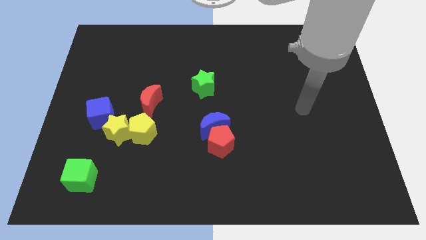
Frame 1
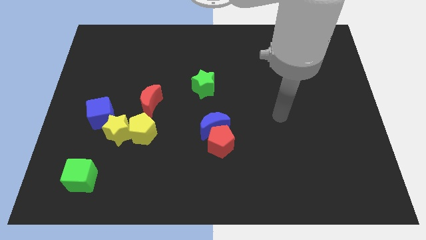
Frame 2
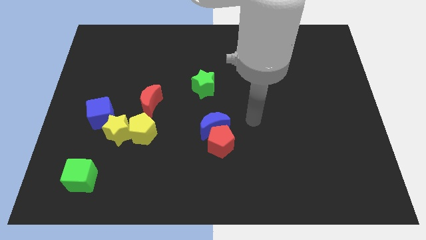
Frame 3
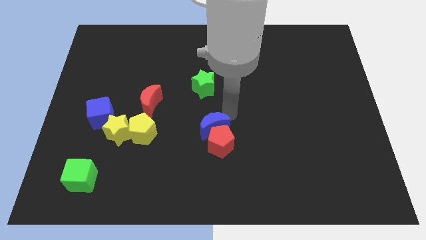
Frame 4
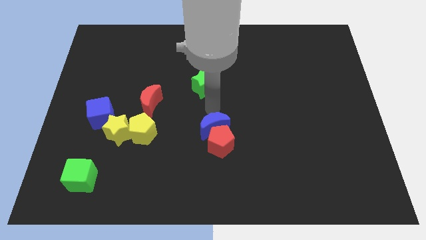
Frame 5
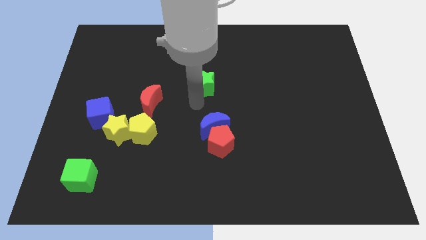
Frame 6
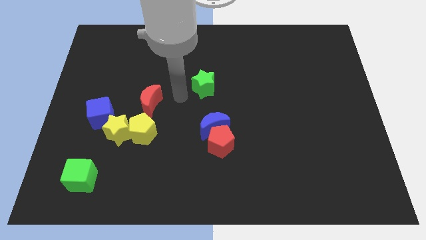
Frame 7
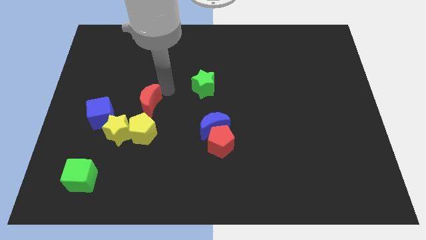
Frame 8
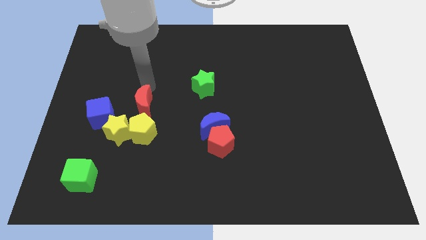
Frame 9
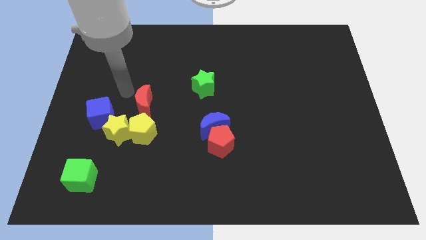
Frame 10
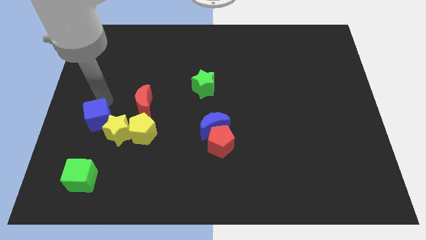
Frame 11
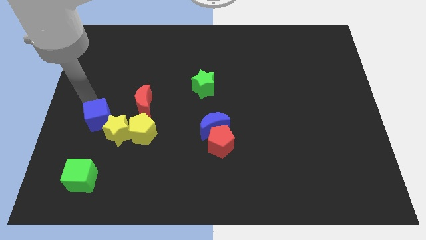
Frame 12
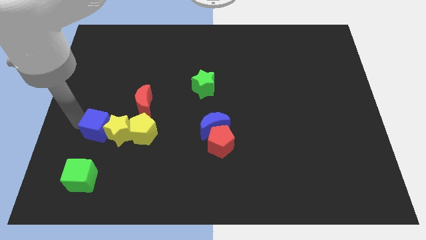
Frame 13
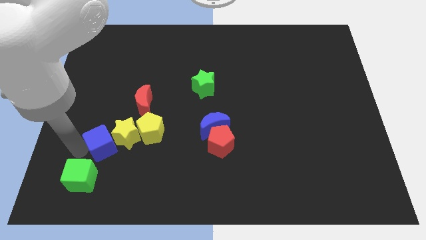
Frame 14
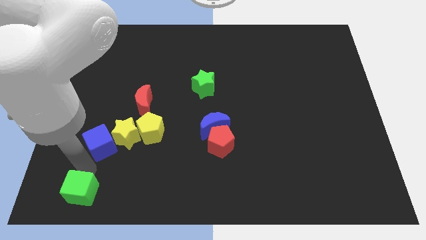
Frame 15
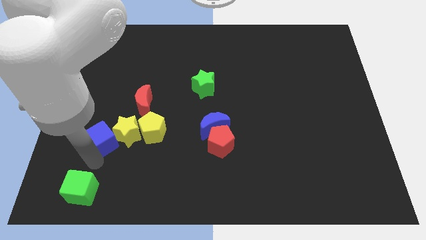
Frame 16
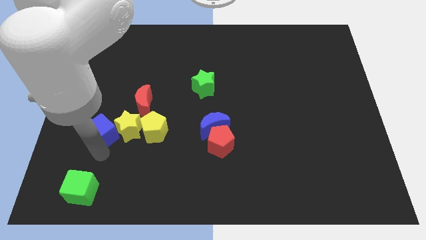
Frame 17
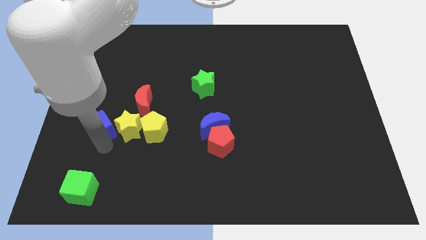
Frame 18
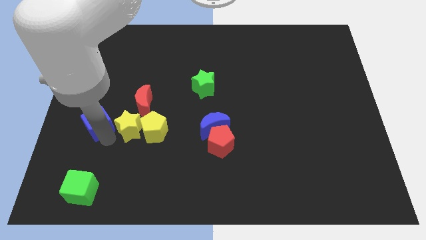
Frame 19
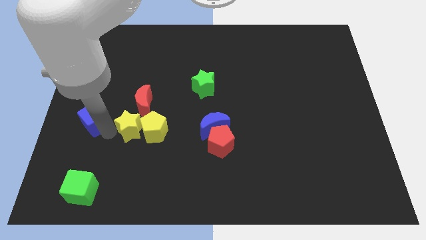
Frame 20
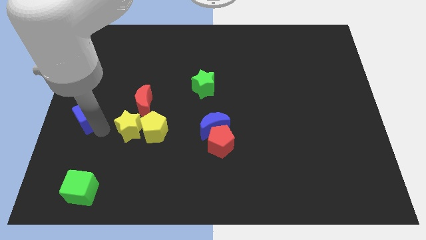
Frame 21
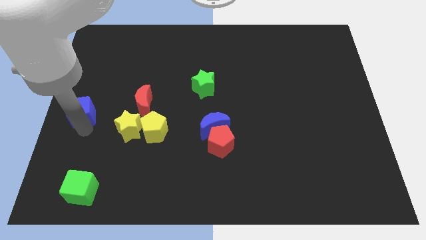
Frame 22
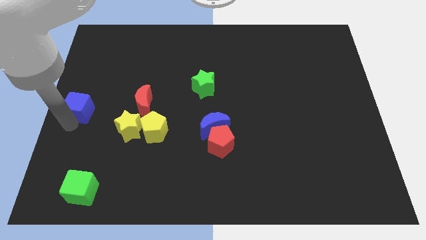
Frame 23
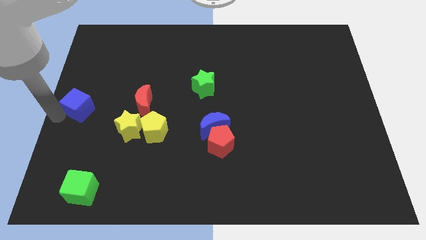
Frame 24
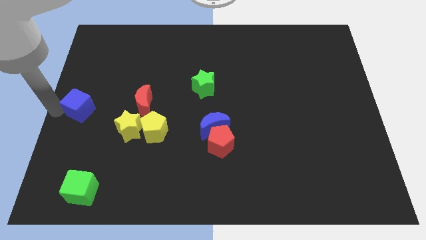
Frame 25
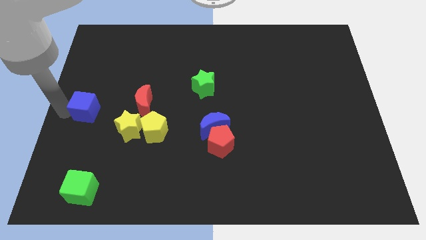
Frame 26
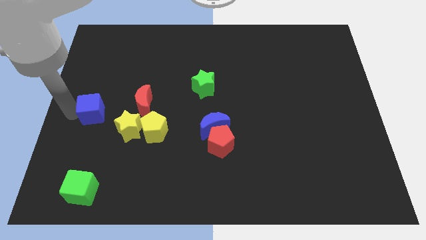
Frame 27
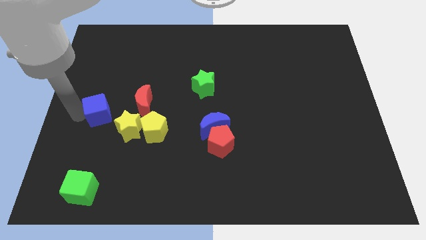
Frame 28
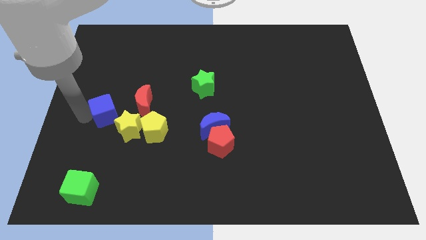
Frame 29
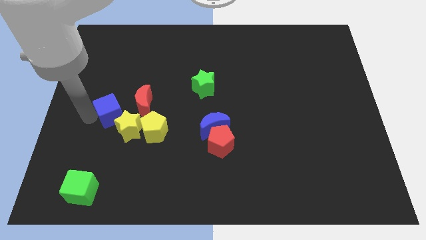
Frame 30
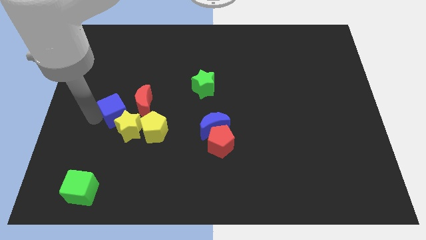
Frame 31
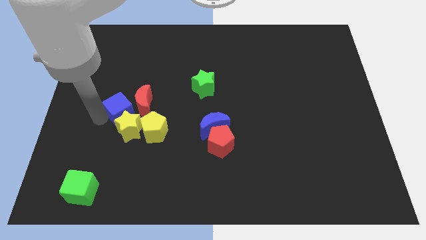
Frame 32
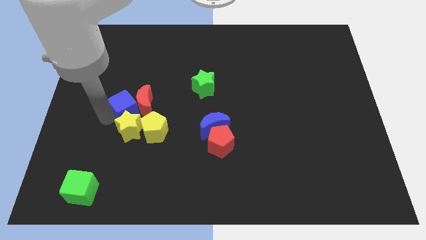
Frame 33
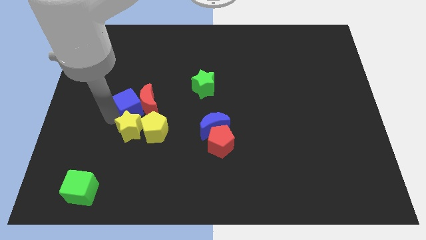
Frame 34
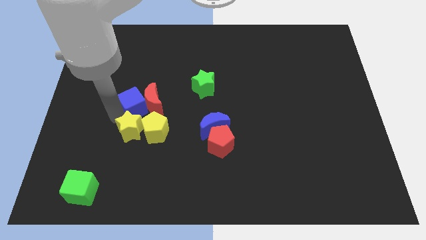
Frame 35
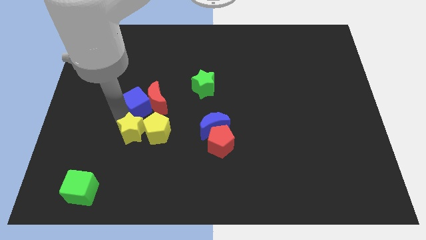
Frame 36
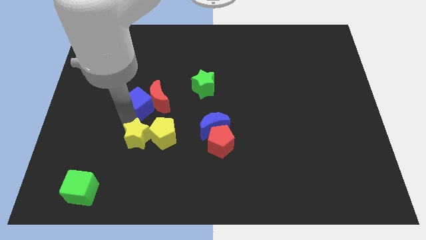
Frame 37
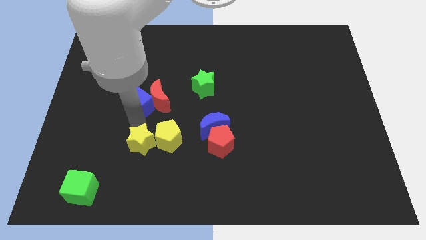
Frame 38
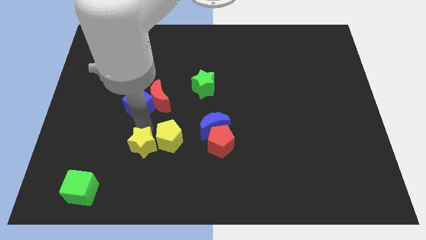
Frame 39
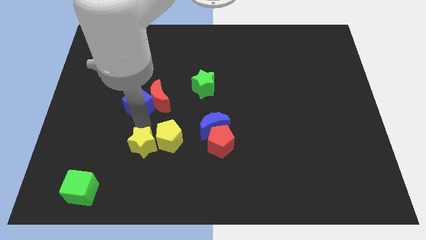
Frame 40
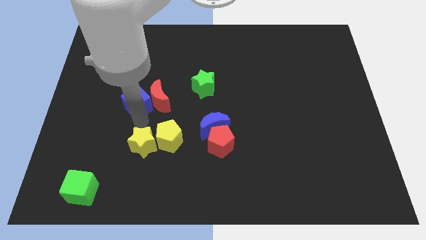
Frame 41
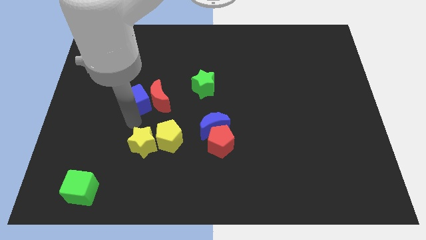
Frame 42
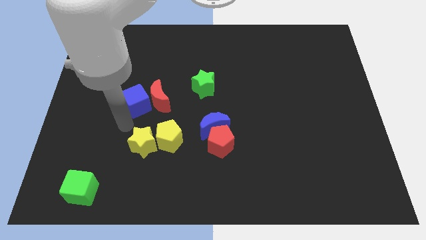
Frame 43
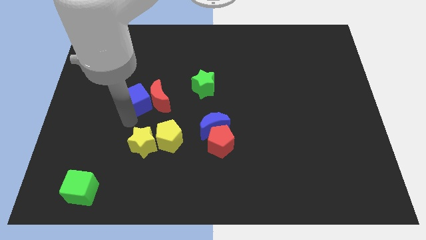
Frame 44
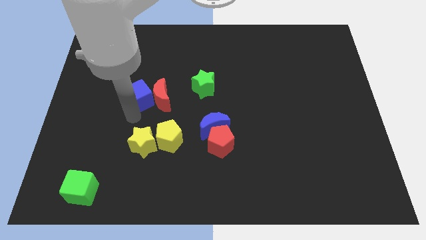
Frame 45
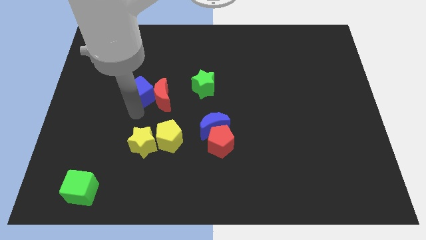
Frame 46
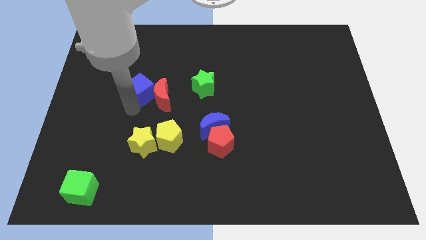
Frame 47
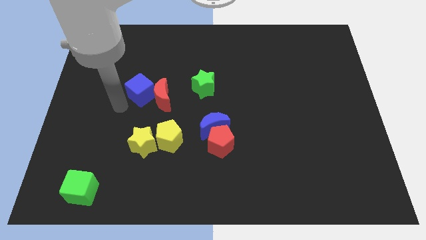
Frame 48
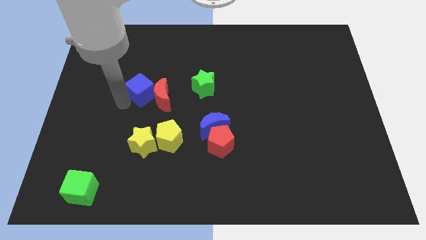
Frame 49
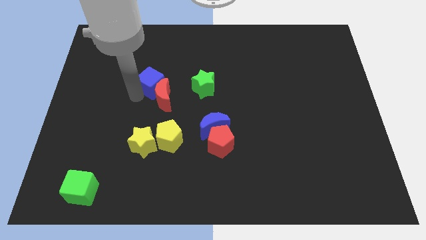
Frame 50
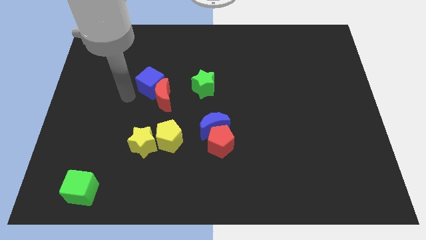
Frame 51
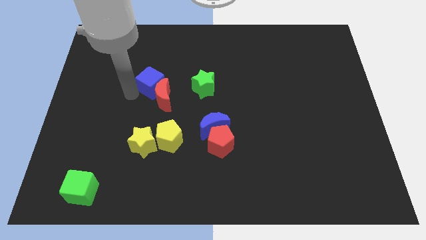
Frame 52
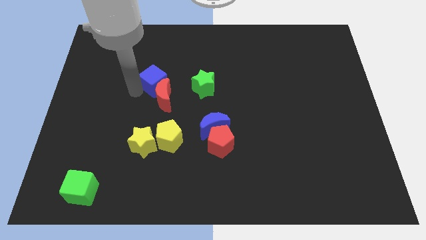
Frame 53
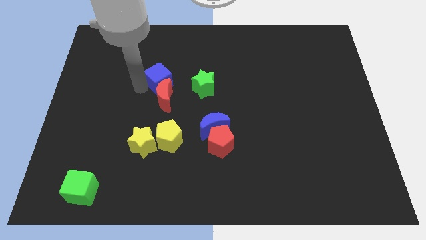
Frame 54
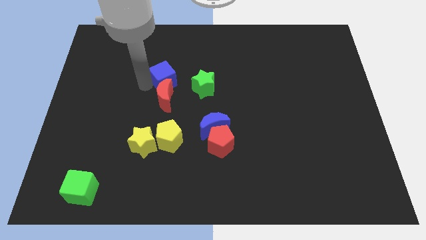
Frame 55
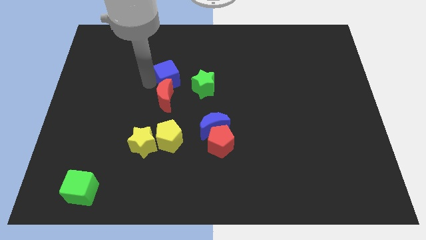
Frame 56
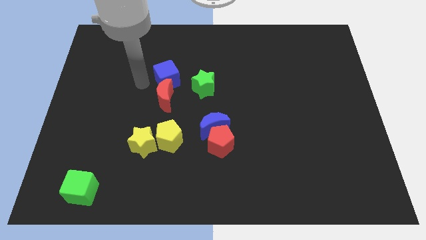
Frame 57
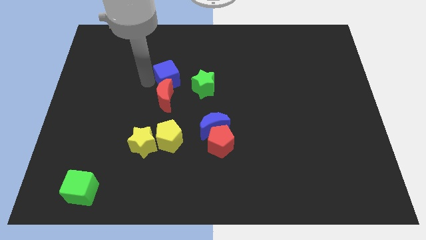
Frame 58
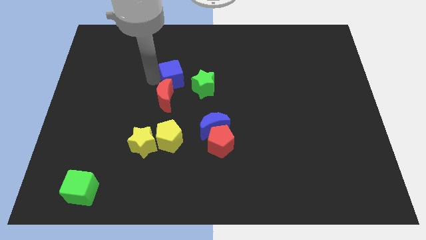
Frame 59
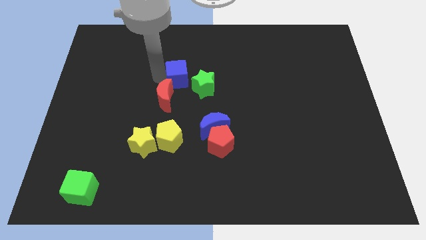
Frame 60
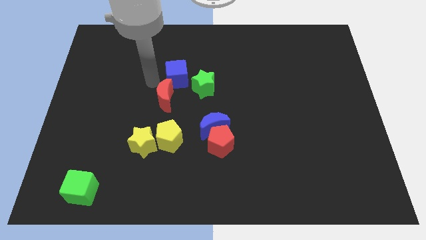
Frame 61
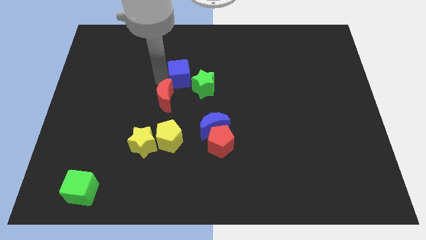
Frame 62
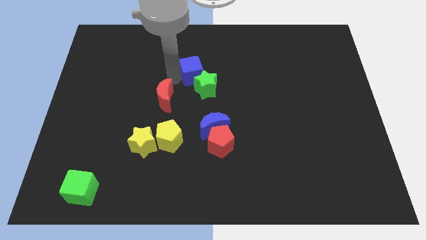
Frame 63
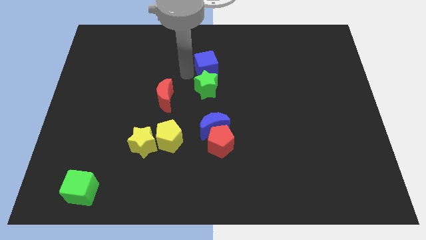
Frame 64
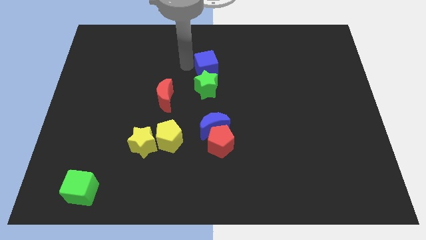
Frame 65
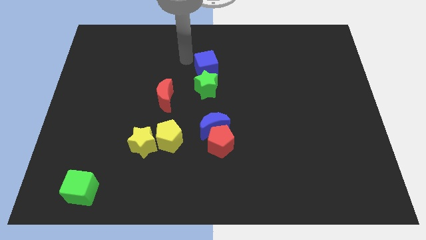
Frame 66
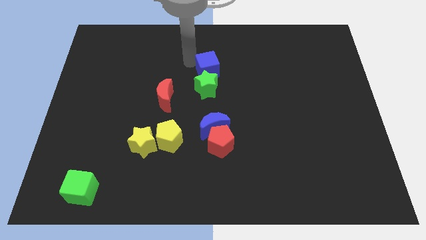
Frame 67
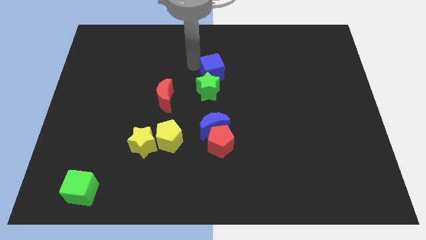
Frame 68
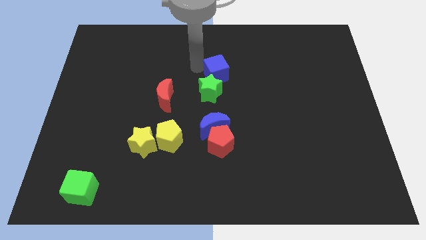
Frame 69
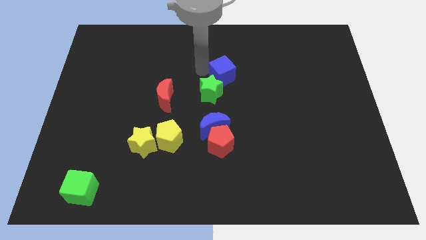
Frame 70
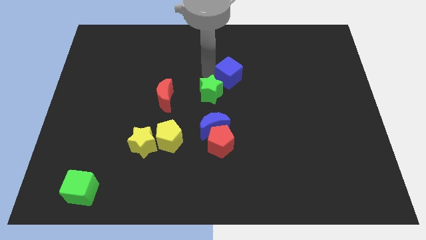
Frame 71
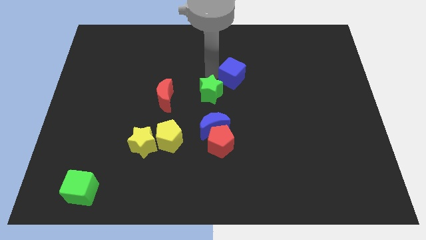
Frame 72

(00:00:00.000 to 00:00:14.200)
slide the blue cube to the right side of the green star
